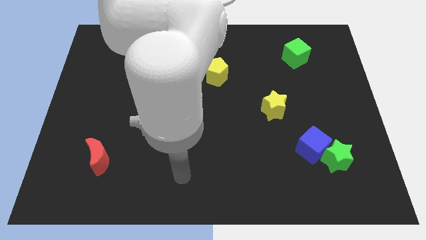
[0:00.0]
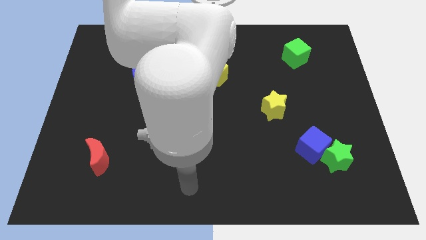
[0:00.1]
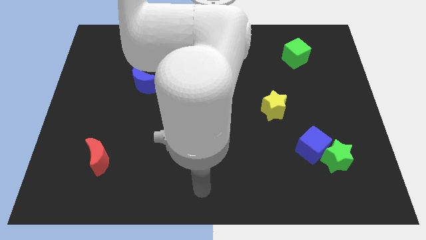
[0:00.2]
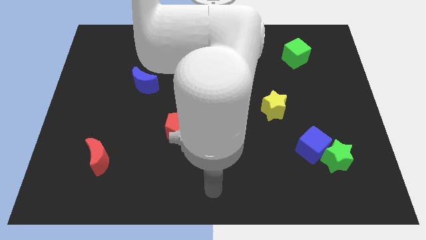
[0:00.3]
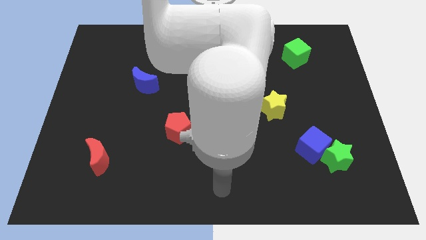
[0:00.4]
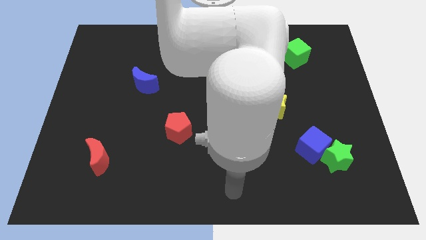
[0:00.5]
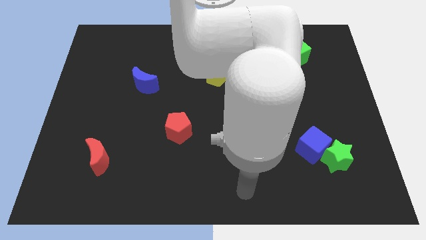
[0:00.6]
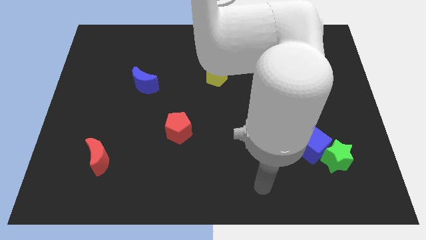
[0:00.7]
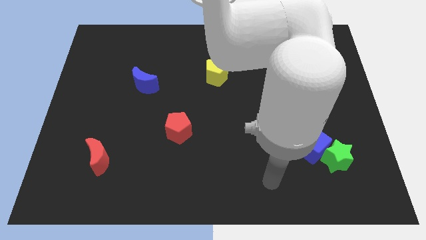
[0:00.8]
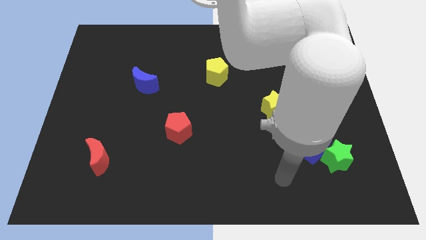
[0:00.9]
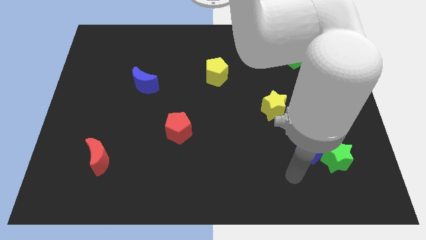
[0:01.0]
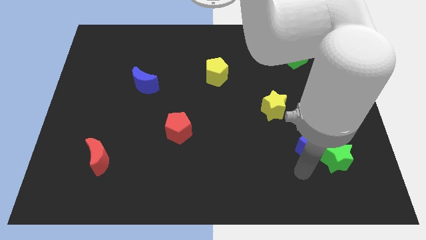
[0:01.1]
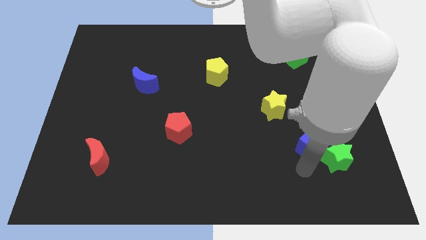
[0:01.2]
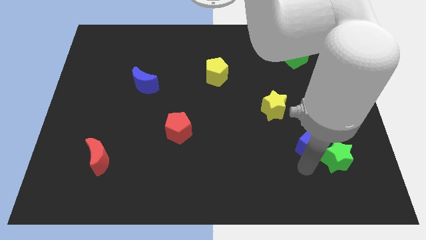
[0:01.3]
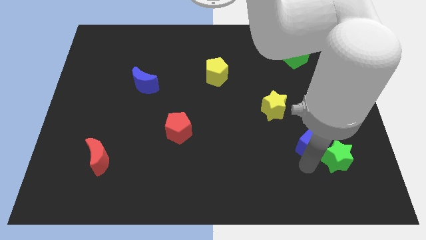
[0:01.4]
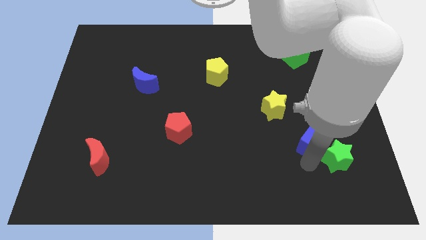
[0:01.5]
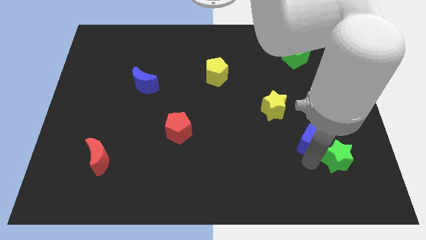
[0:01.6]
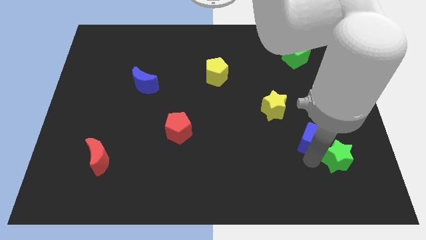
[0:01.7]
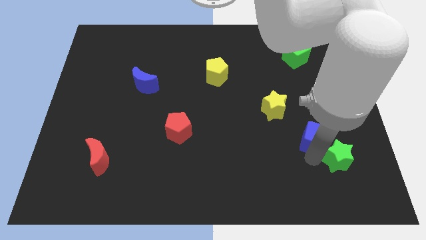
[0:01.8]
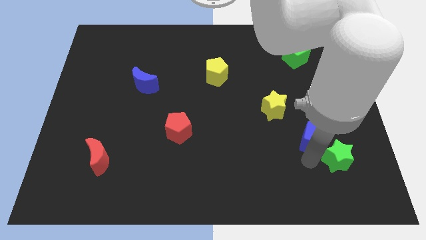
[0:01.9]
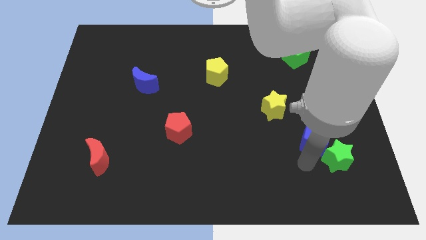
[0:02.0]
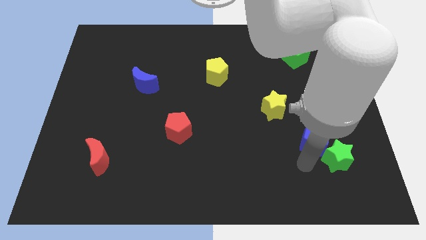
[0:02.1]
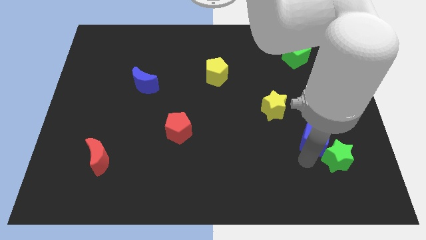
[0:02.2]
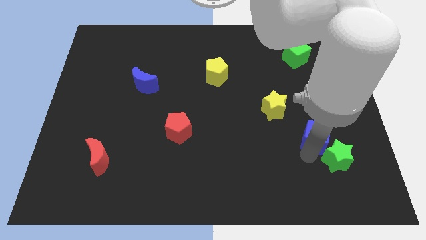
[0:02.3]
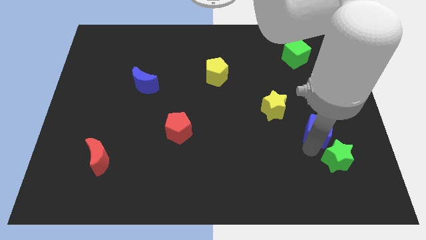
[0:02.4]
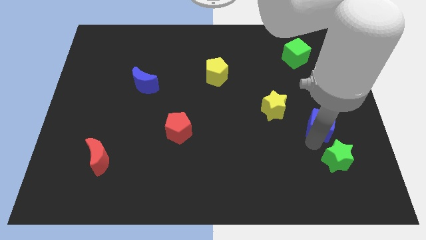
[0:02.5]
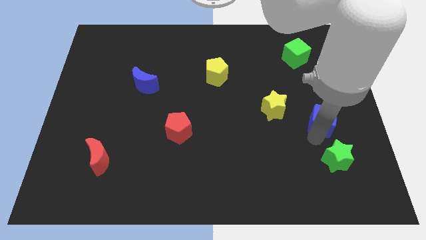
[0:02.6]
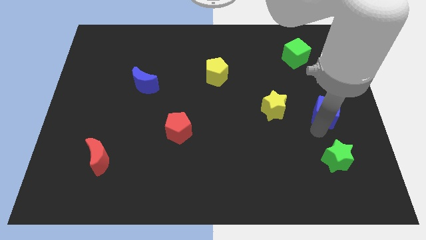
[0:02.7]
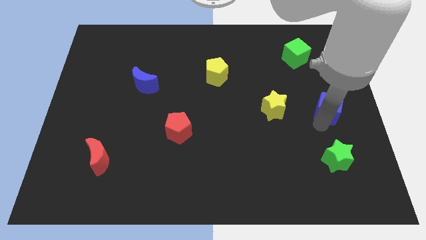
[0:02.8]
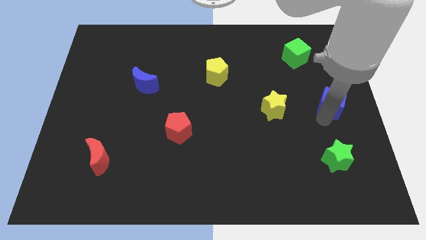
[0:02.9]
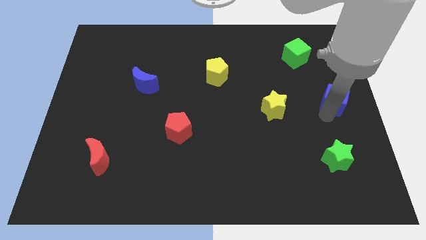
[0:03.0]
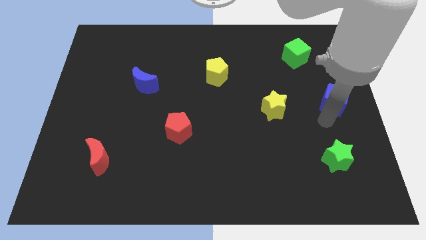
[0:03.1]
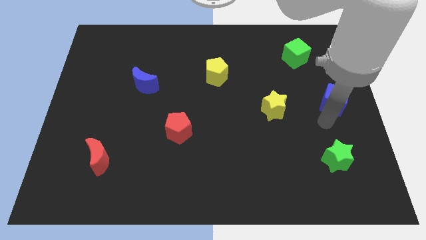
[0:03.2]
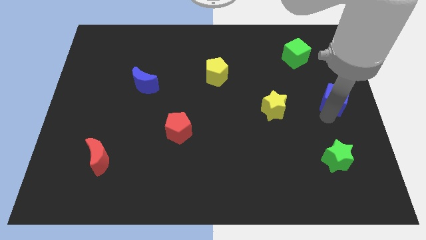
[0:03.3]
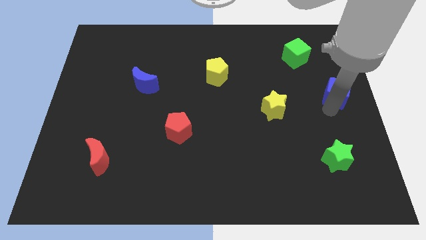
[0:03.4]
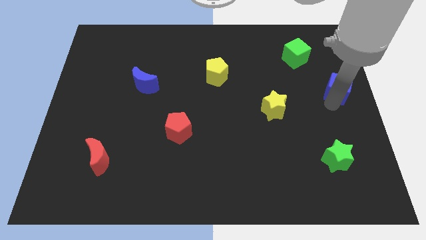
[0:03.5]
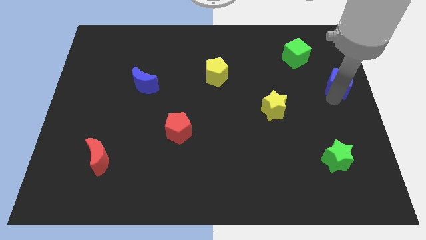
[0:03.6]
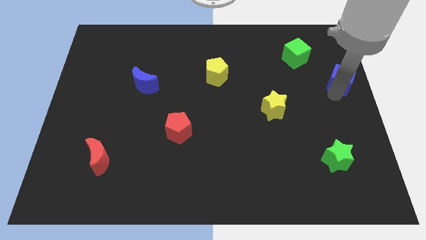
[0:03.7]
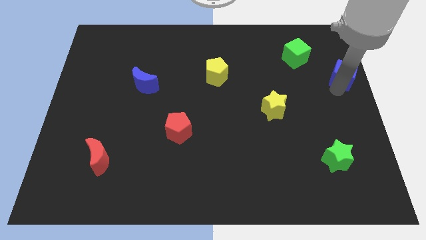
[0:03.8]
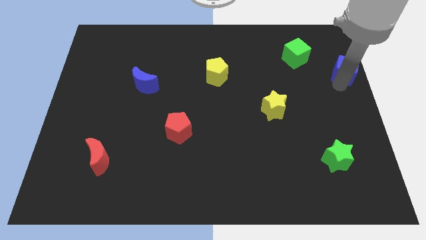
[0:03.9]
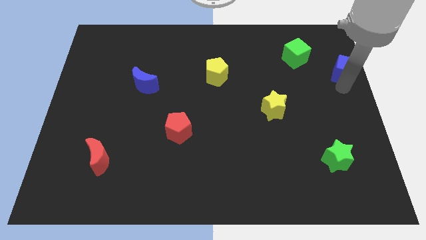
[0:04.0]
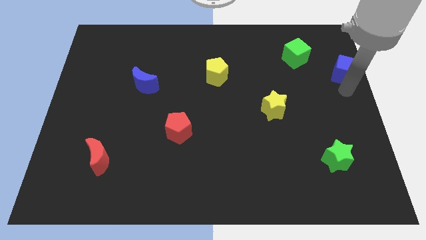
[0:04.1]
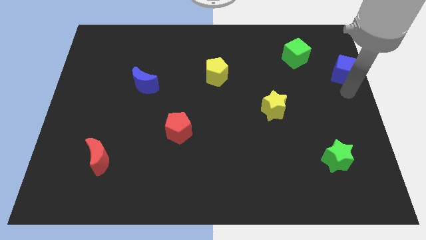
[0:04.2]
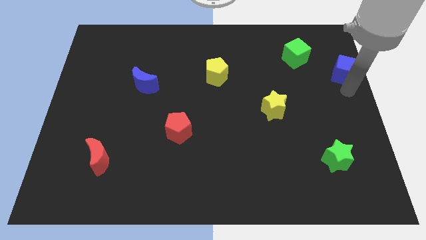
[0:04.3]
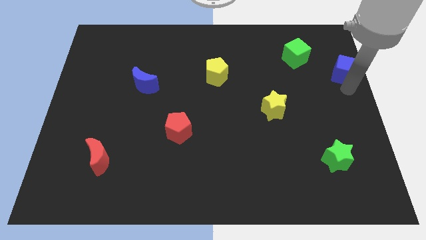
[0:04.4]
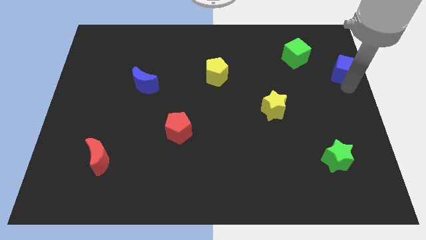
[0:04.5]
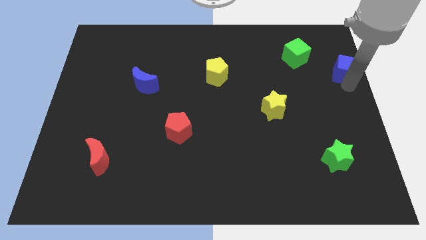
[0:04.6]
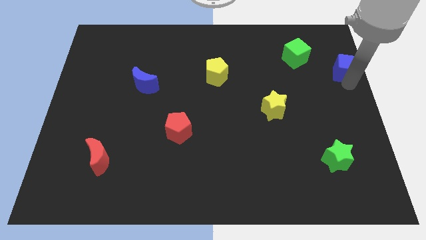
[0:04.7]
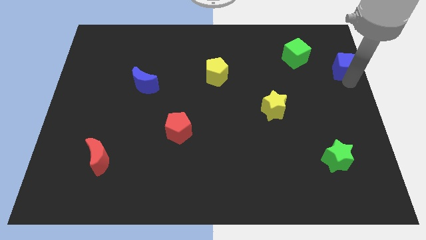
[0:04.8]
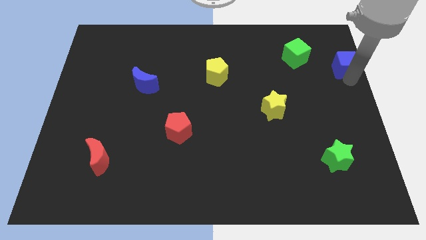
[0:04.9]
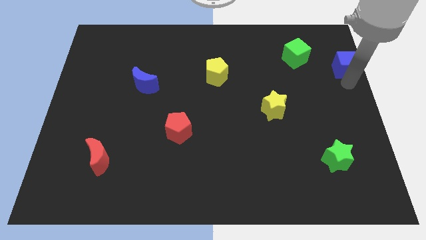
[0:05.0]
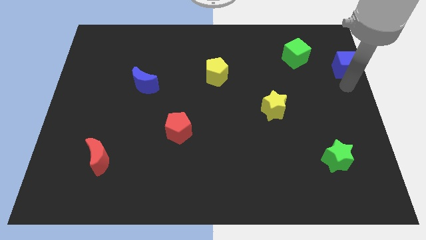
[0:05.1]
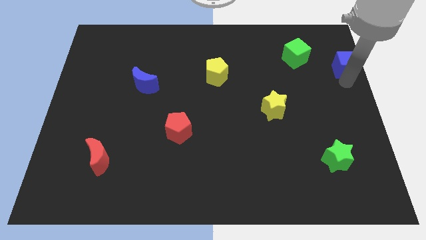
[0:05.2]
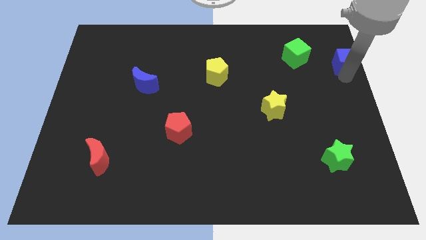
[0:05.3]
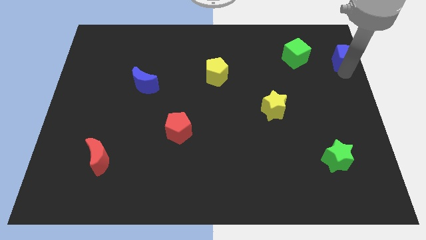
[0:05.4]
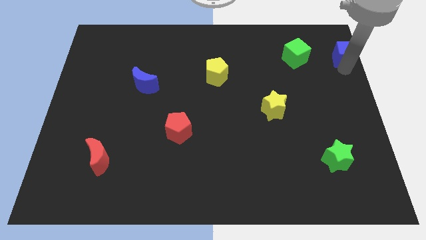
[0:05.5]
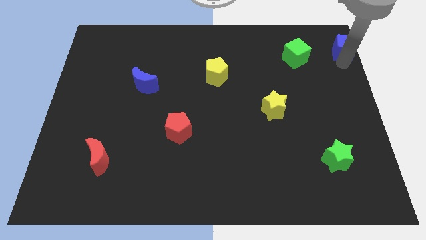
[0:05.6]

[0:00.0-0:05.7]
move the blue cube to the top right

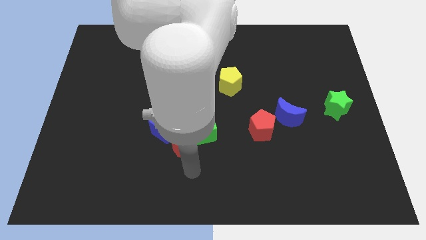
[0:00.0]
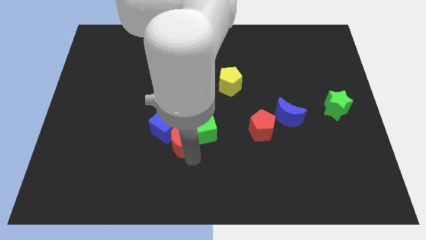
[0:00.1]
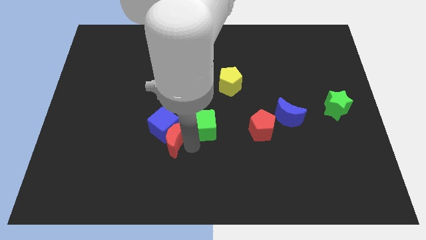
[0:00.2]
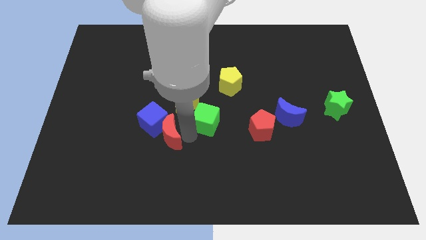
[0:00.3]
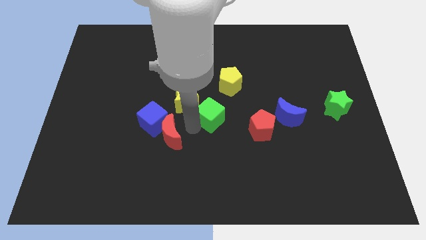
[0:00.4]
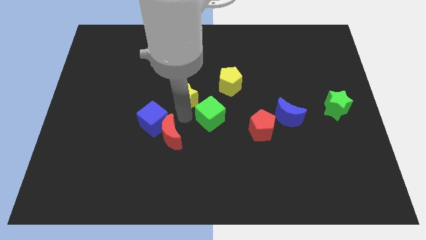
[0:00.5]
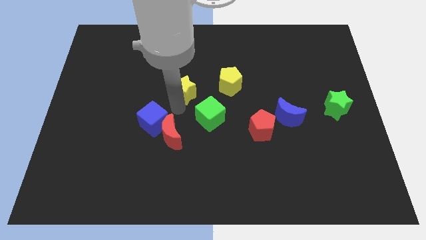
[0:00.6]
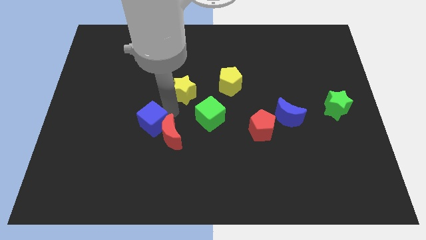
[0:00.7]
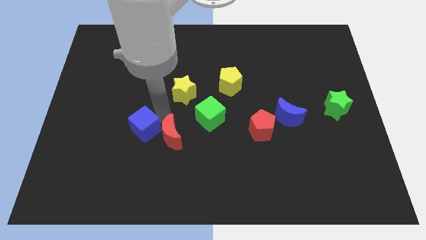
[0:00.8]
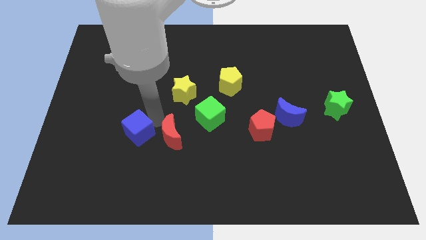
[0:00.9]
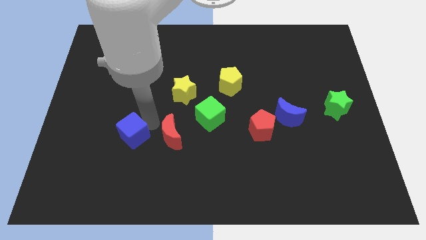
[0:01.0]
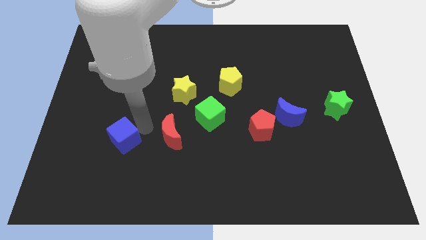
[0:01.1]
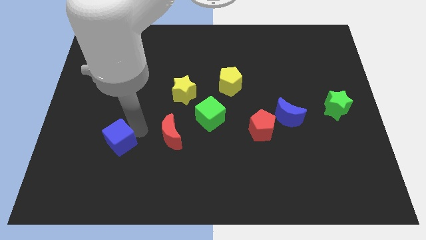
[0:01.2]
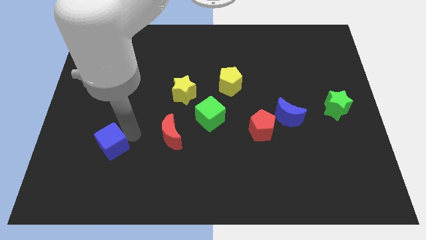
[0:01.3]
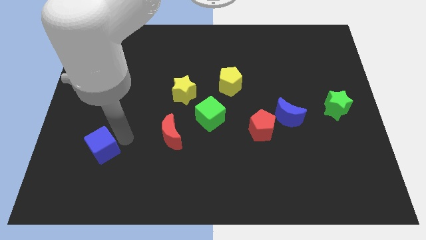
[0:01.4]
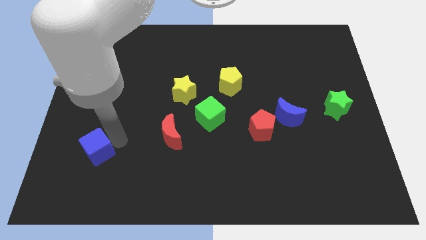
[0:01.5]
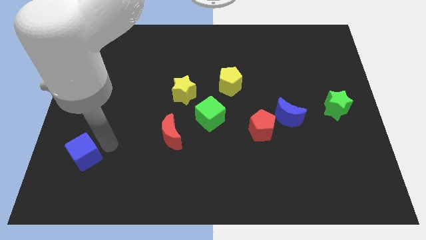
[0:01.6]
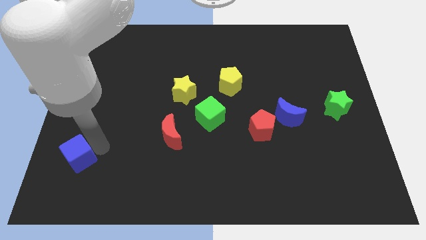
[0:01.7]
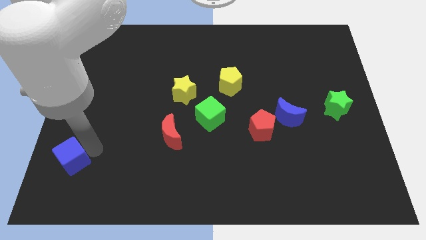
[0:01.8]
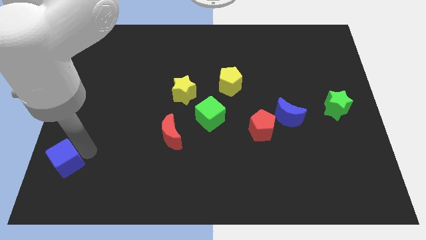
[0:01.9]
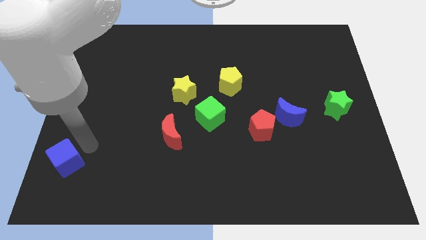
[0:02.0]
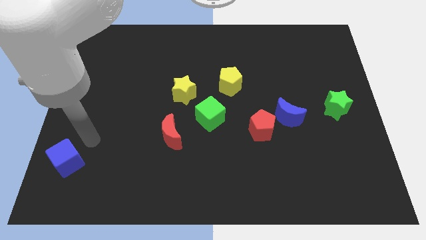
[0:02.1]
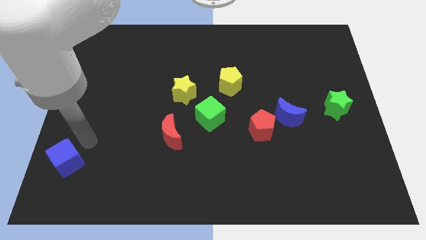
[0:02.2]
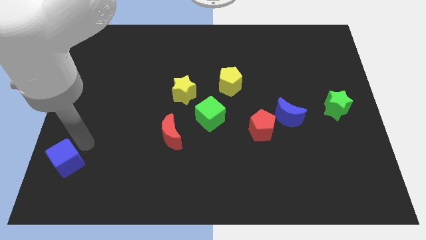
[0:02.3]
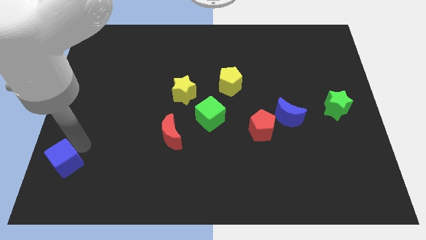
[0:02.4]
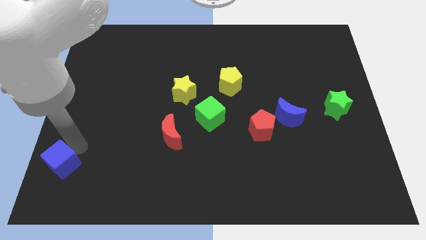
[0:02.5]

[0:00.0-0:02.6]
put the blue cube to the bottom left corner
